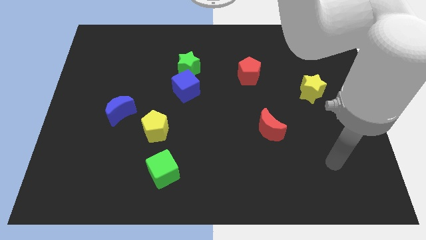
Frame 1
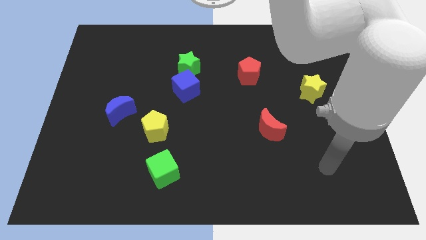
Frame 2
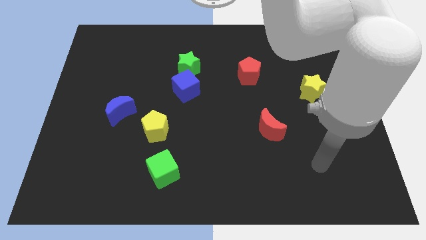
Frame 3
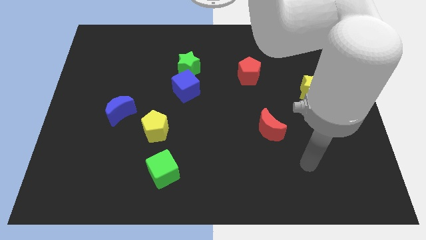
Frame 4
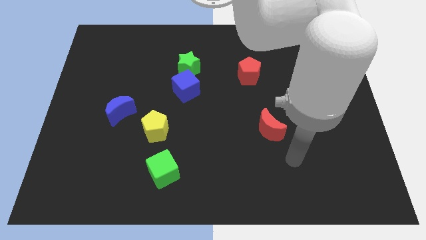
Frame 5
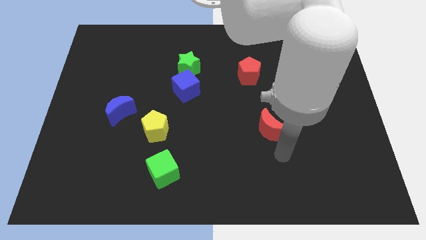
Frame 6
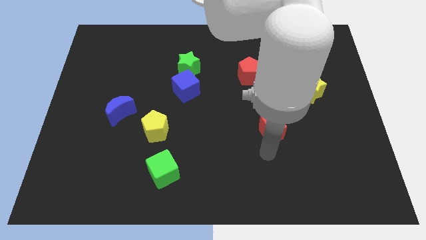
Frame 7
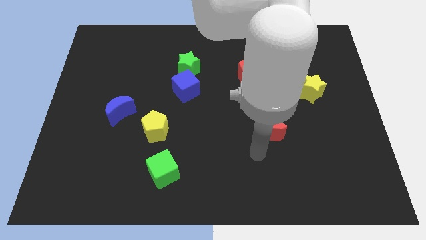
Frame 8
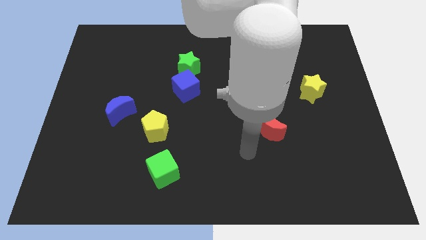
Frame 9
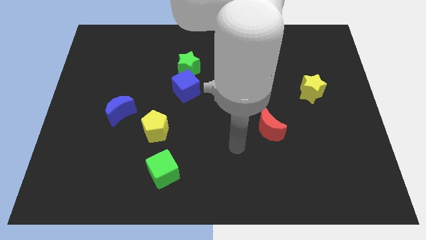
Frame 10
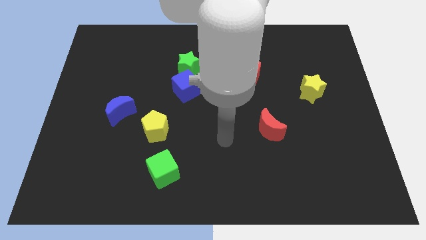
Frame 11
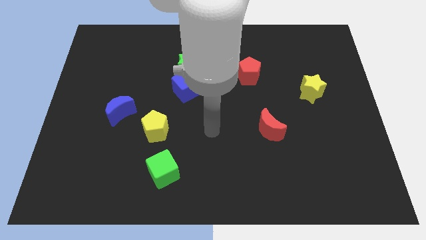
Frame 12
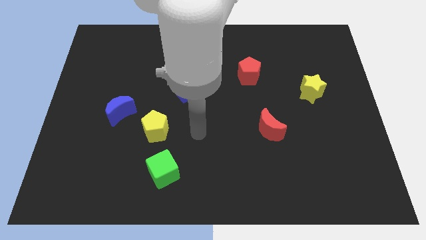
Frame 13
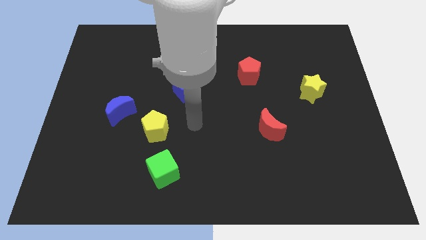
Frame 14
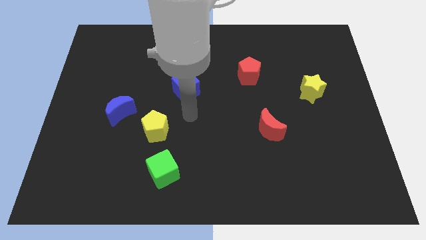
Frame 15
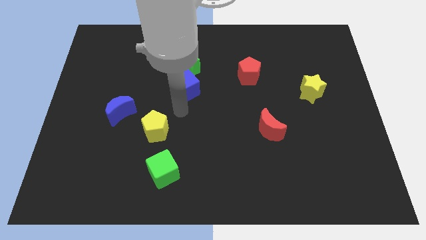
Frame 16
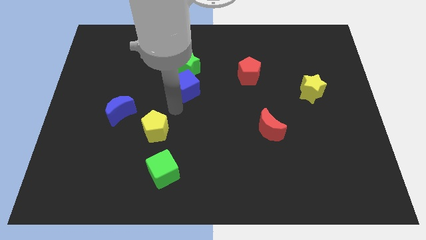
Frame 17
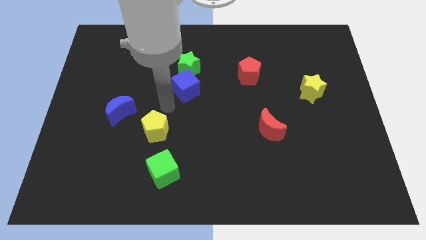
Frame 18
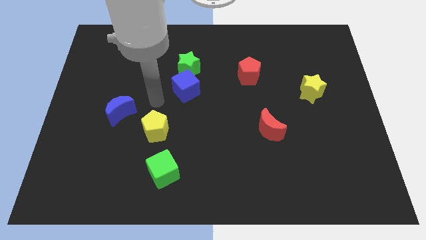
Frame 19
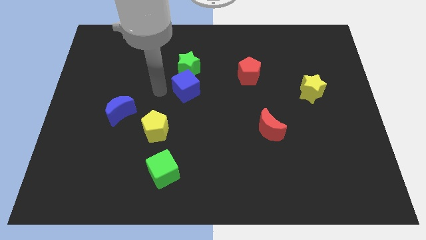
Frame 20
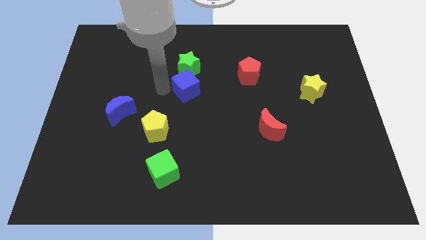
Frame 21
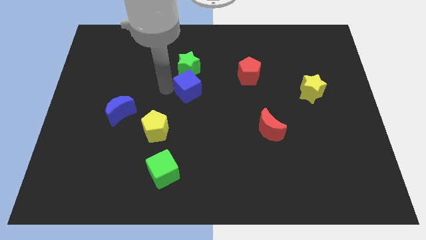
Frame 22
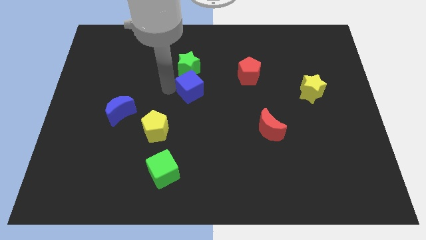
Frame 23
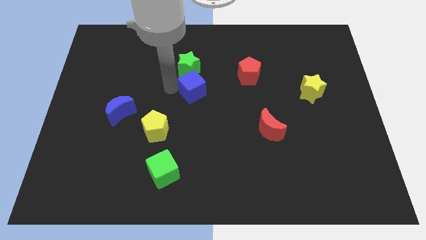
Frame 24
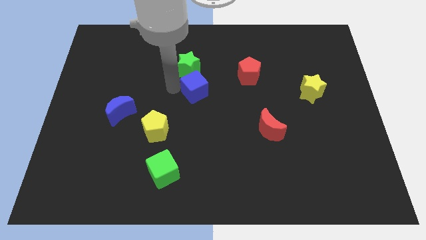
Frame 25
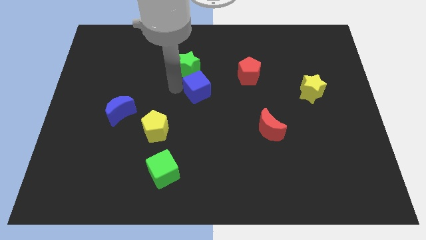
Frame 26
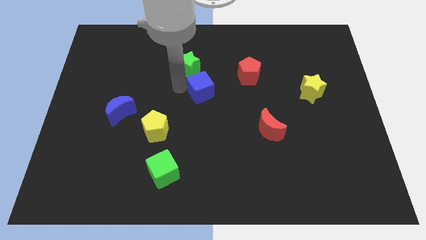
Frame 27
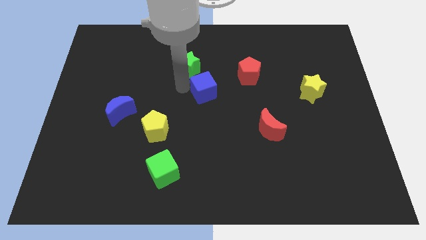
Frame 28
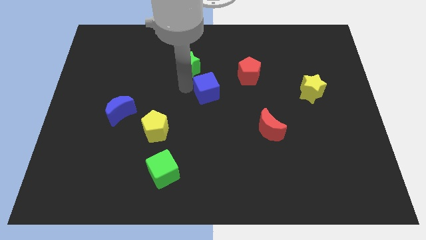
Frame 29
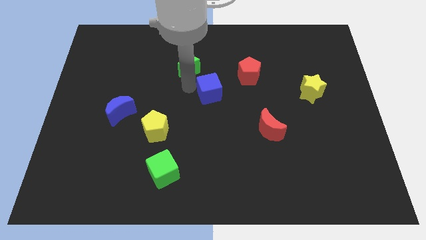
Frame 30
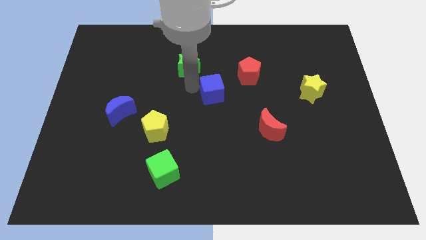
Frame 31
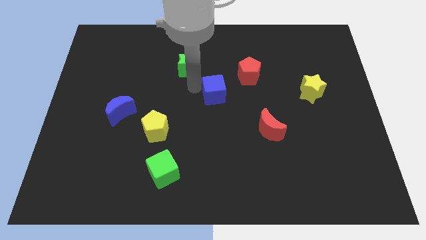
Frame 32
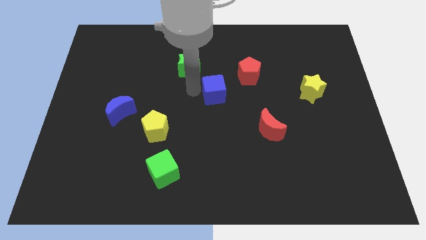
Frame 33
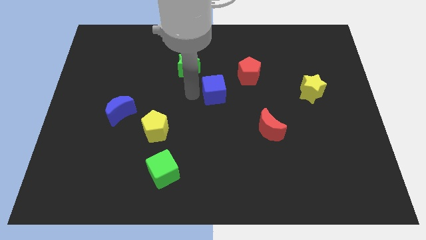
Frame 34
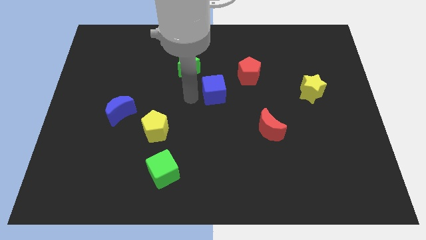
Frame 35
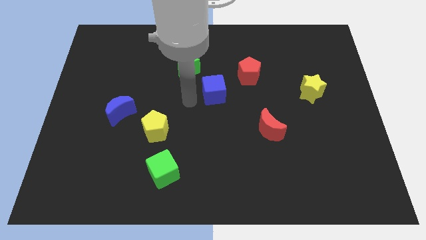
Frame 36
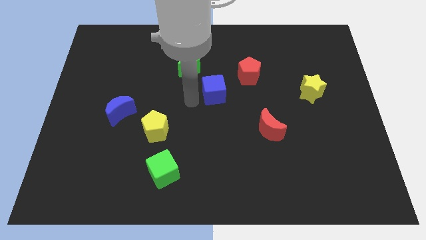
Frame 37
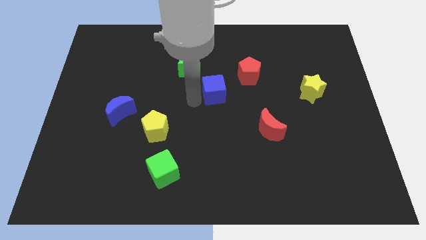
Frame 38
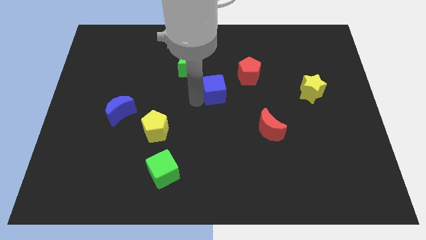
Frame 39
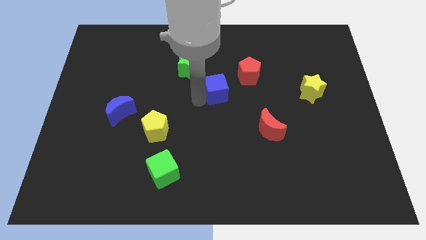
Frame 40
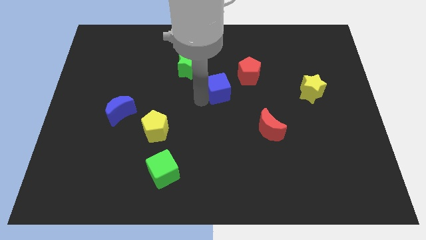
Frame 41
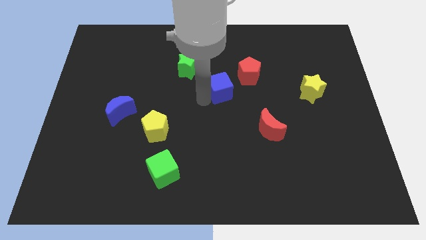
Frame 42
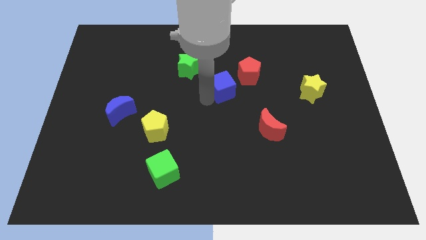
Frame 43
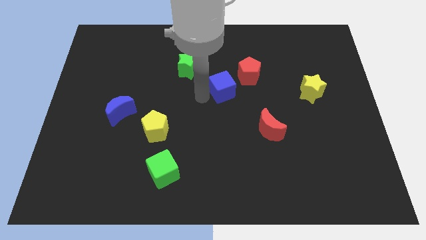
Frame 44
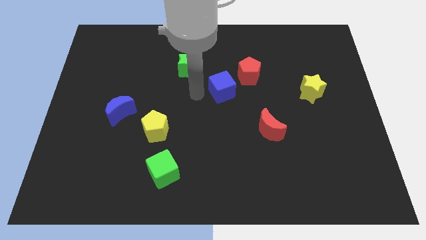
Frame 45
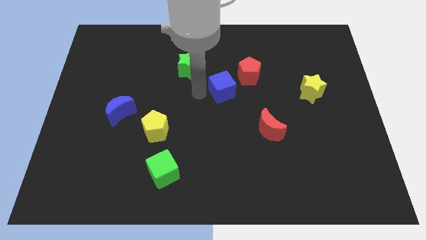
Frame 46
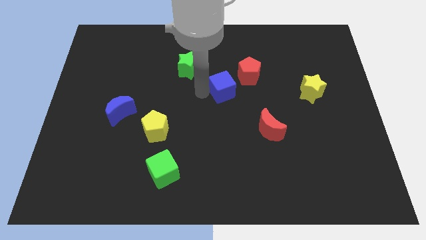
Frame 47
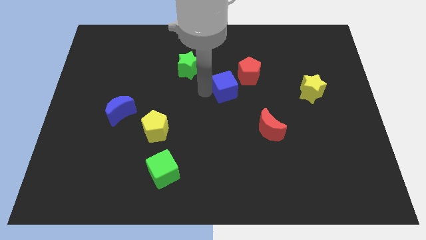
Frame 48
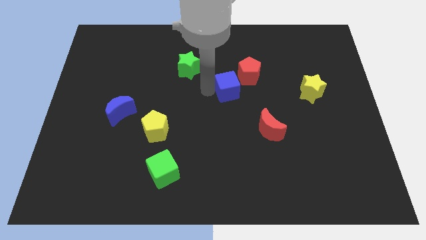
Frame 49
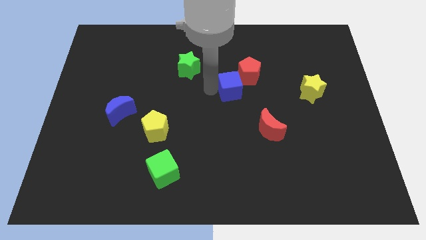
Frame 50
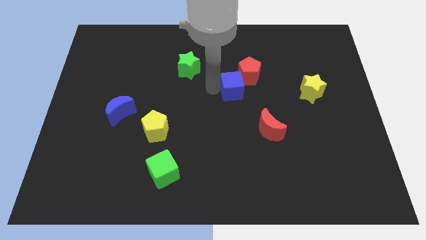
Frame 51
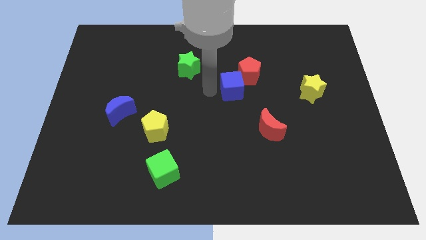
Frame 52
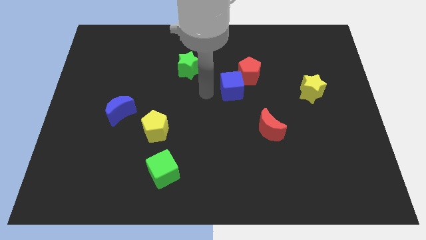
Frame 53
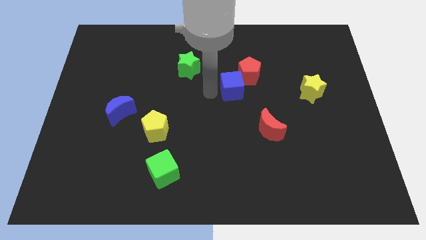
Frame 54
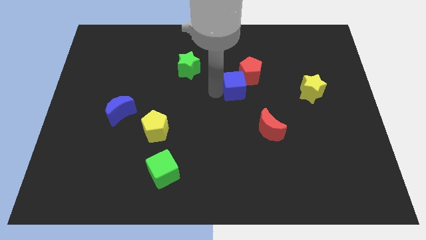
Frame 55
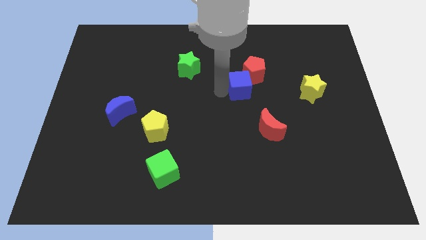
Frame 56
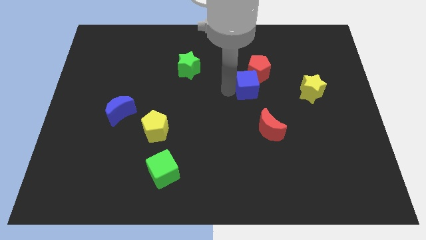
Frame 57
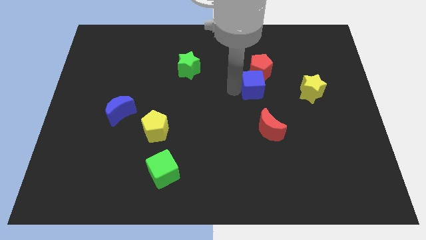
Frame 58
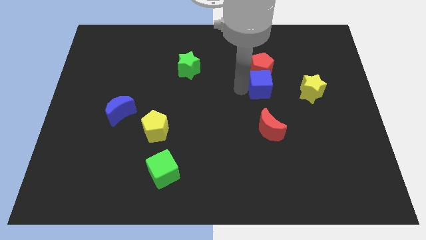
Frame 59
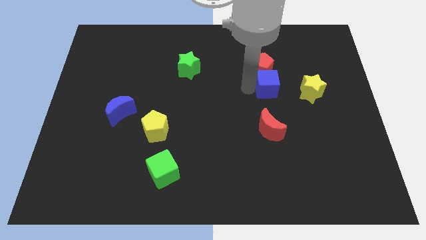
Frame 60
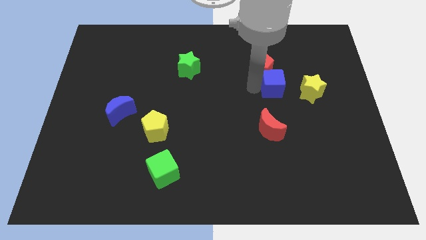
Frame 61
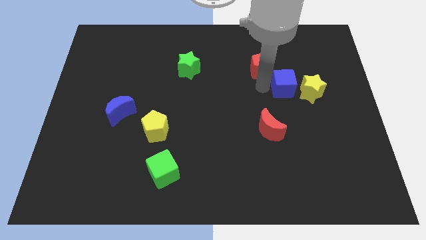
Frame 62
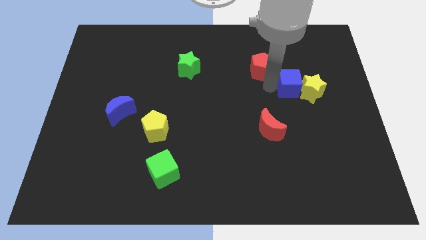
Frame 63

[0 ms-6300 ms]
put the blue cube towards the yellow star

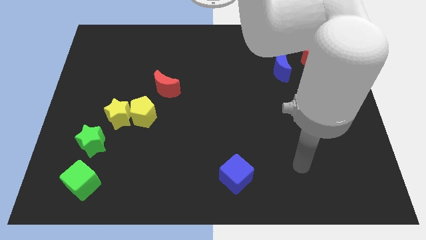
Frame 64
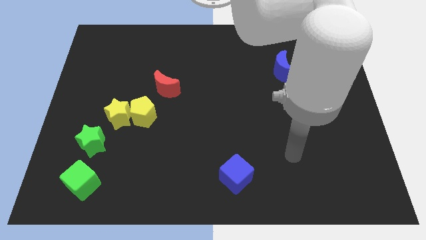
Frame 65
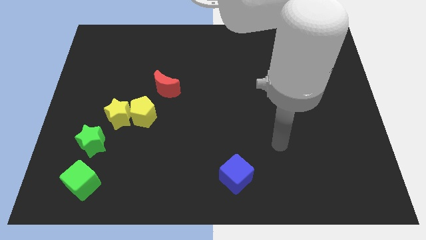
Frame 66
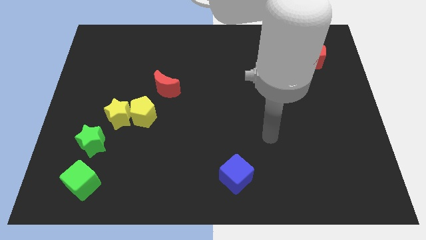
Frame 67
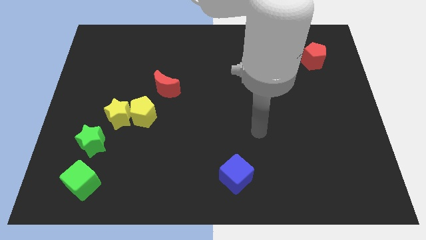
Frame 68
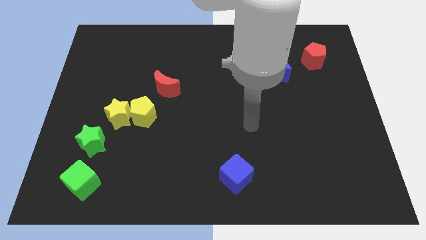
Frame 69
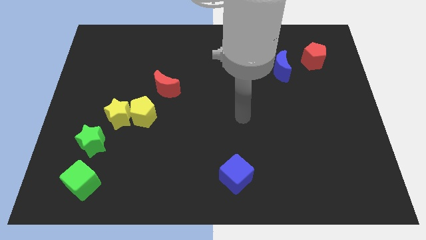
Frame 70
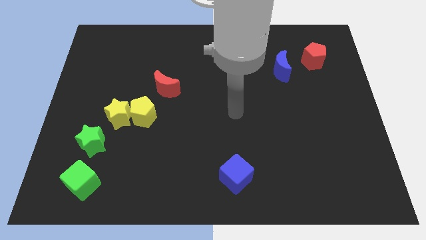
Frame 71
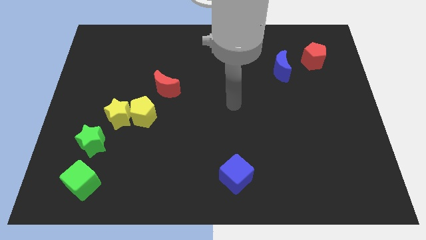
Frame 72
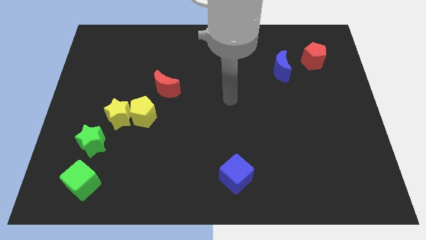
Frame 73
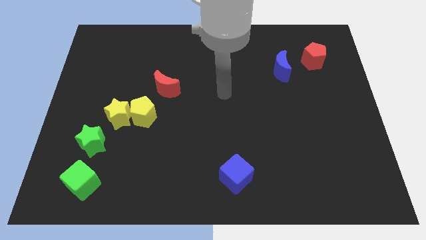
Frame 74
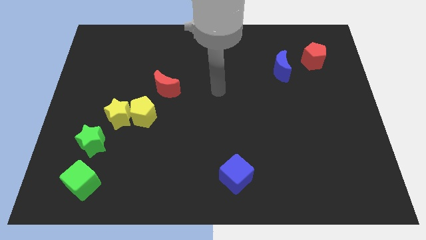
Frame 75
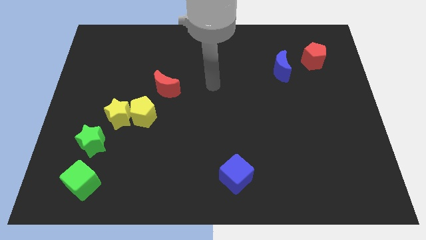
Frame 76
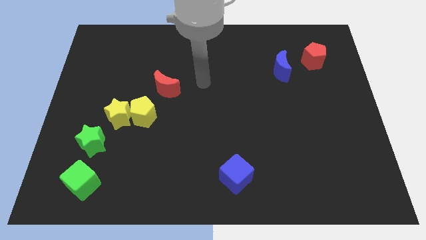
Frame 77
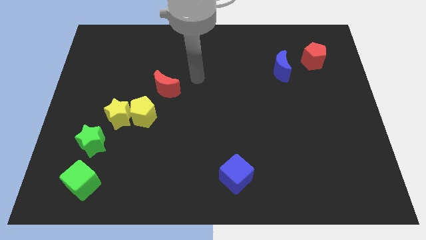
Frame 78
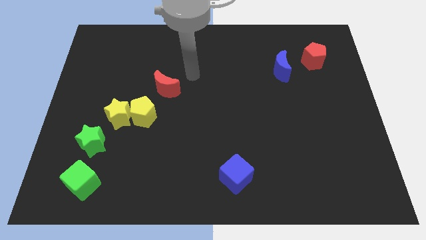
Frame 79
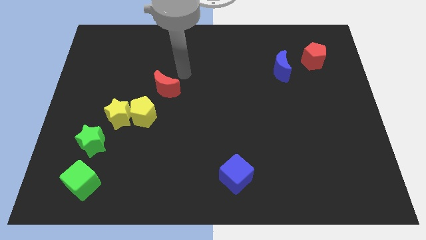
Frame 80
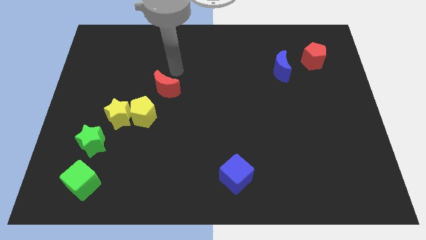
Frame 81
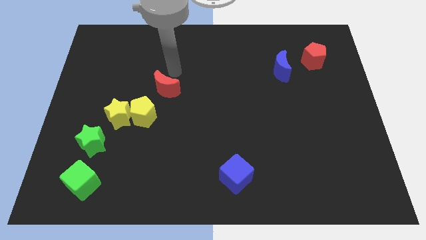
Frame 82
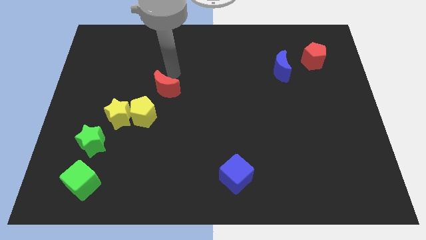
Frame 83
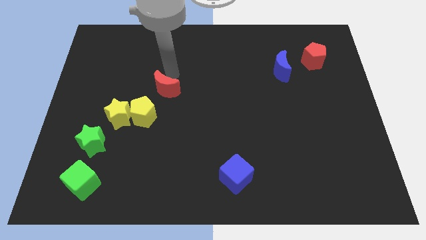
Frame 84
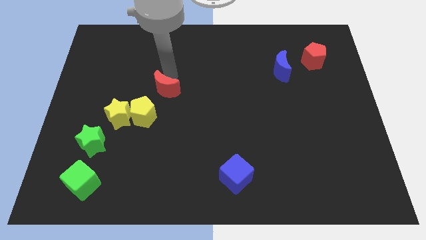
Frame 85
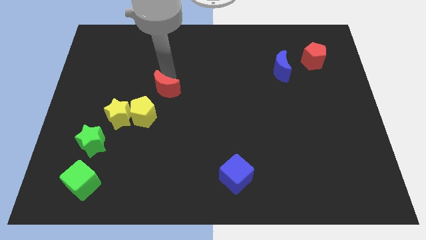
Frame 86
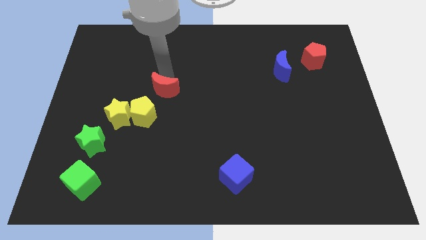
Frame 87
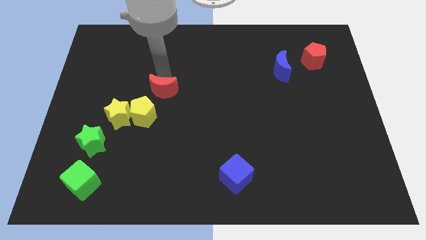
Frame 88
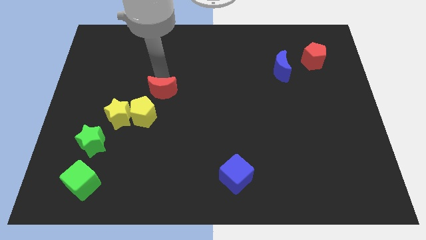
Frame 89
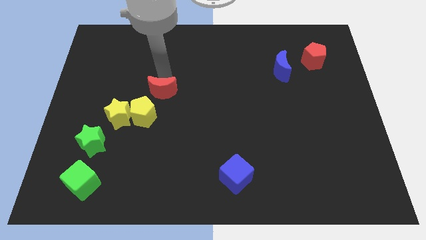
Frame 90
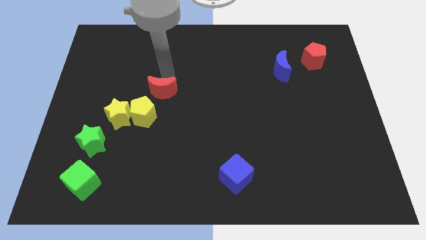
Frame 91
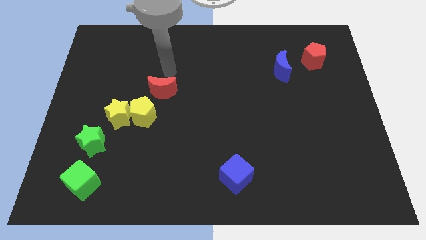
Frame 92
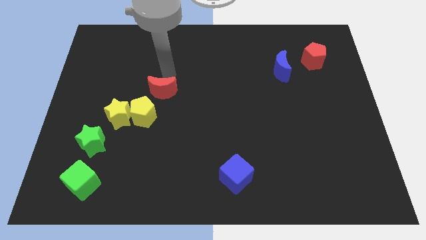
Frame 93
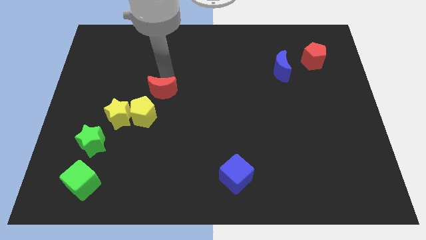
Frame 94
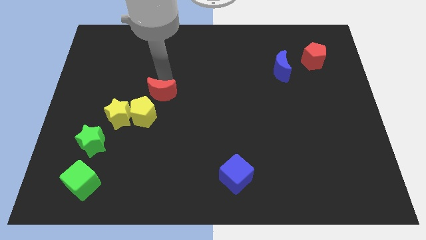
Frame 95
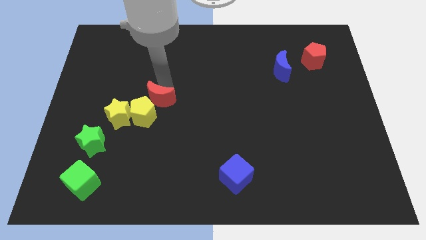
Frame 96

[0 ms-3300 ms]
push the red moon towards the yellow pentagon
